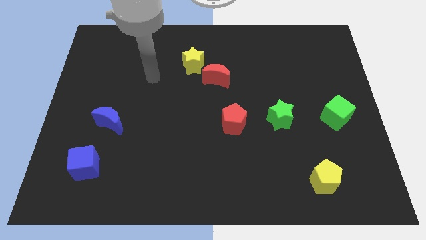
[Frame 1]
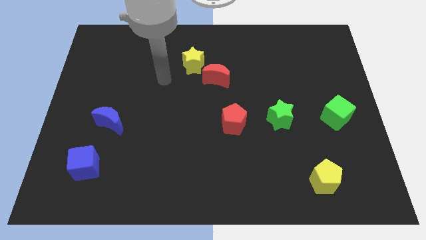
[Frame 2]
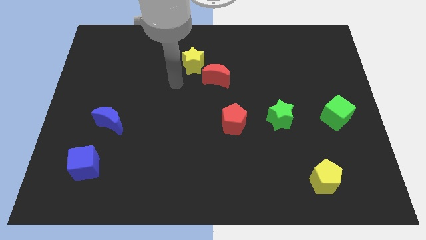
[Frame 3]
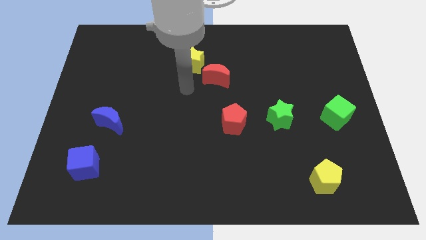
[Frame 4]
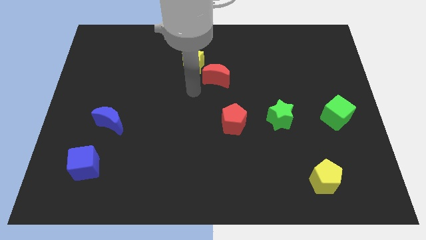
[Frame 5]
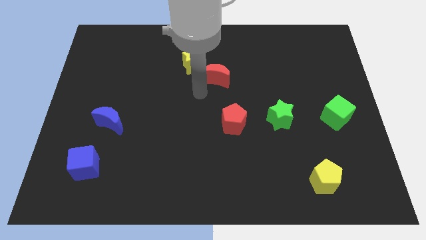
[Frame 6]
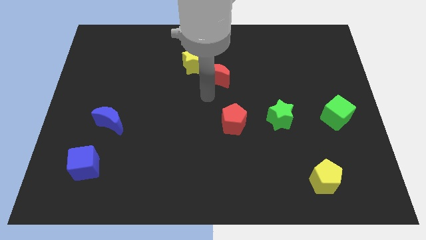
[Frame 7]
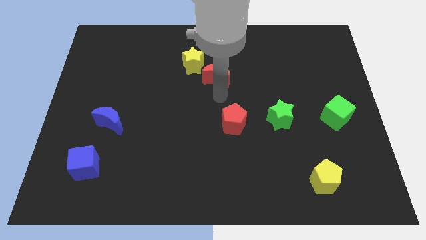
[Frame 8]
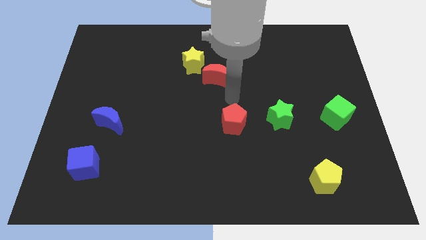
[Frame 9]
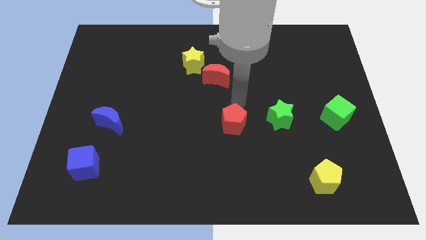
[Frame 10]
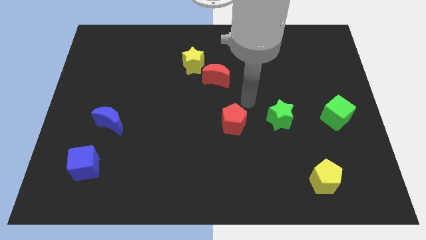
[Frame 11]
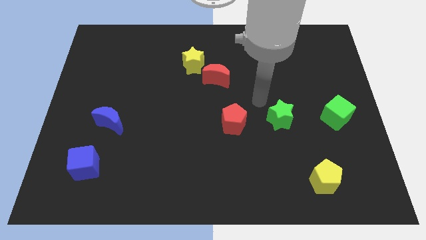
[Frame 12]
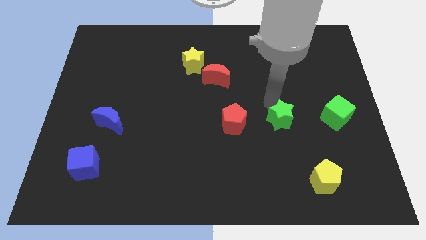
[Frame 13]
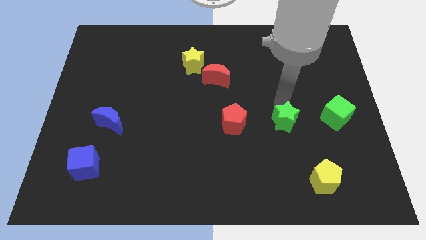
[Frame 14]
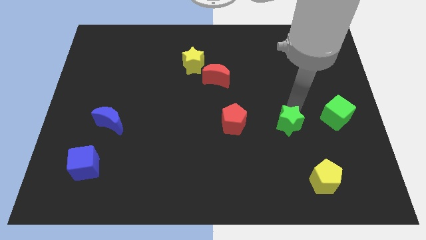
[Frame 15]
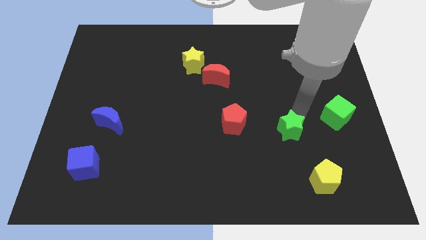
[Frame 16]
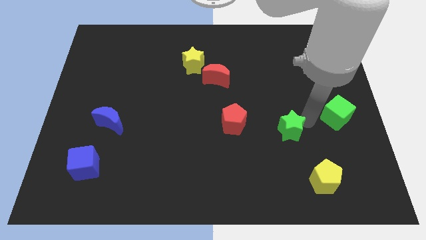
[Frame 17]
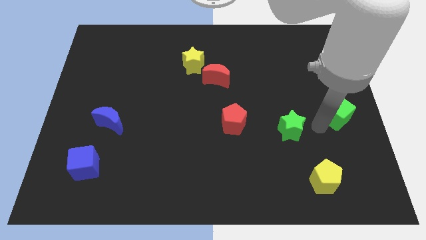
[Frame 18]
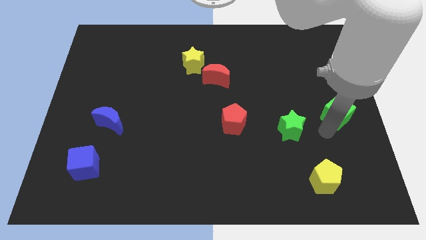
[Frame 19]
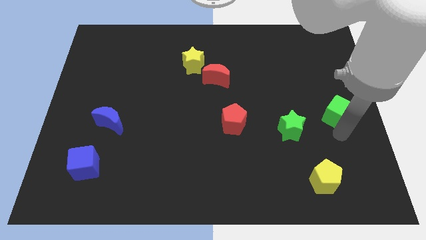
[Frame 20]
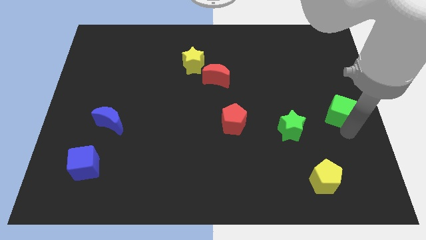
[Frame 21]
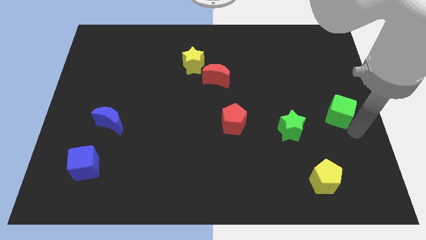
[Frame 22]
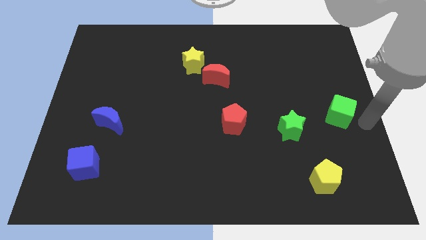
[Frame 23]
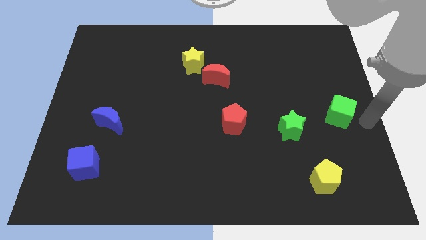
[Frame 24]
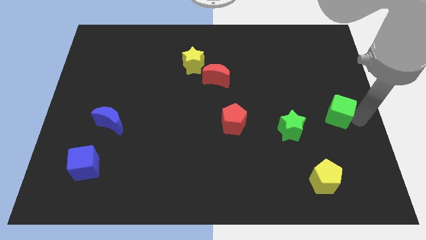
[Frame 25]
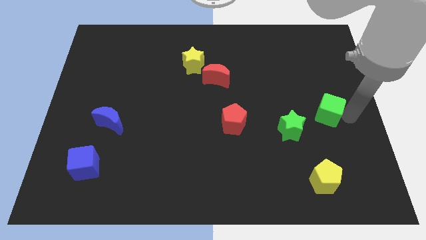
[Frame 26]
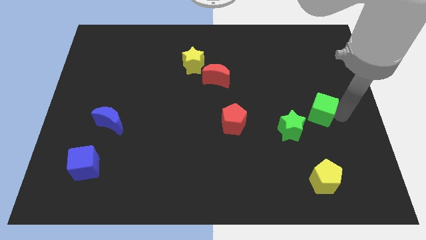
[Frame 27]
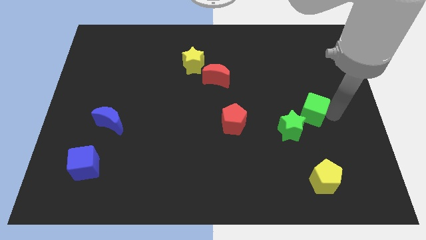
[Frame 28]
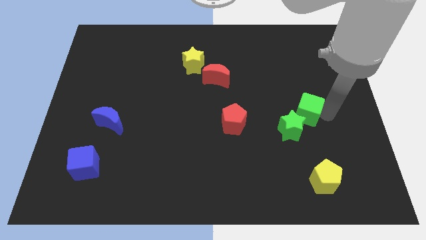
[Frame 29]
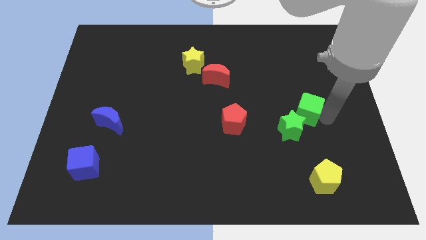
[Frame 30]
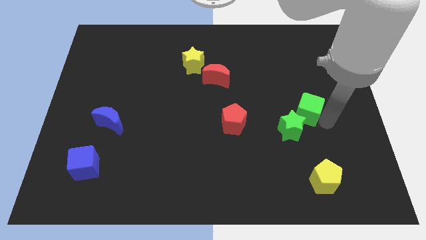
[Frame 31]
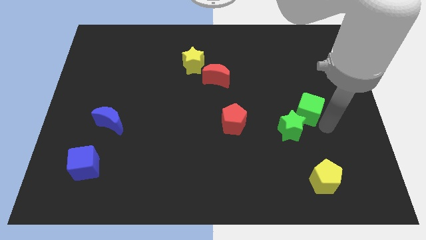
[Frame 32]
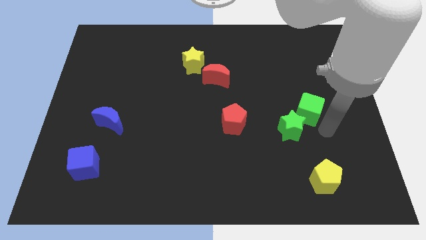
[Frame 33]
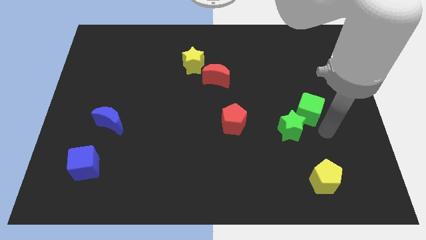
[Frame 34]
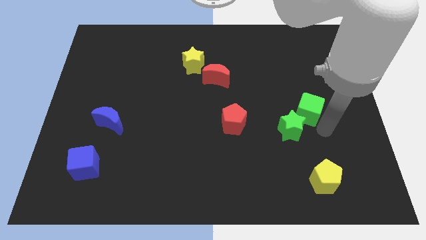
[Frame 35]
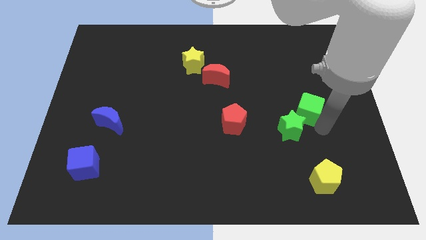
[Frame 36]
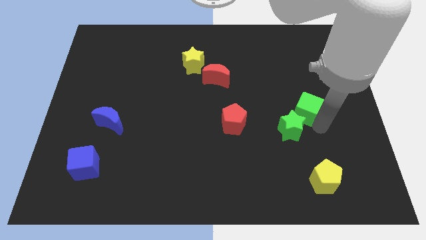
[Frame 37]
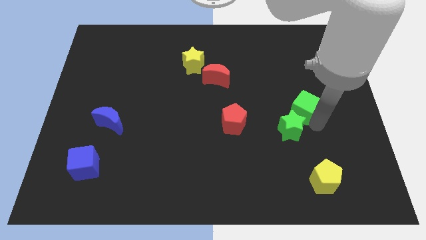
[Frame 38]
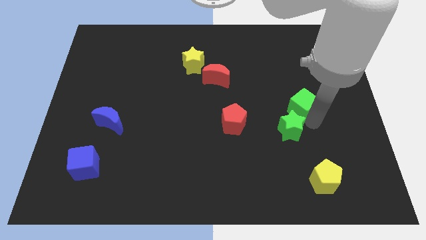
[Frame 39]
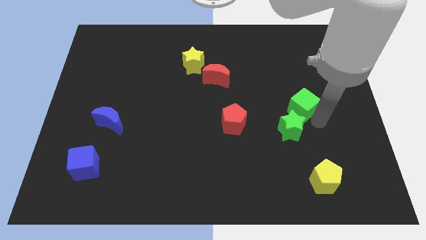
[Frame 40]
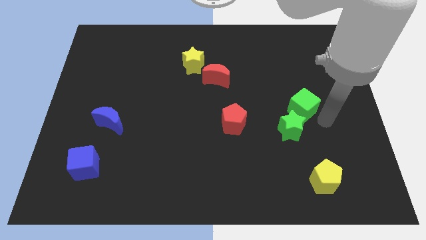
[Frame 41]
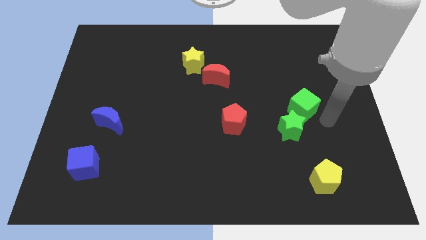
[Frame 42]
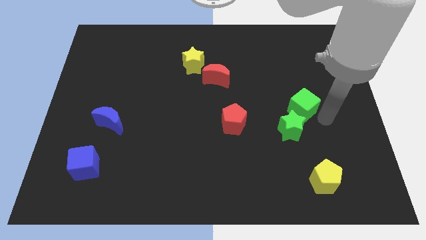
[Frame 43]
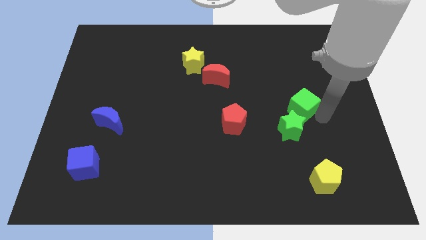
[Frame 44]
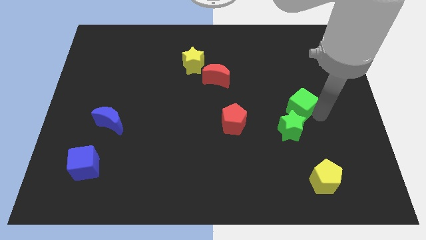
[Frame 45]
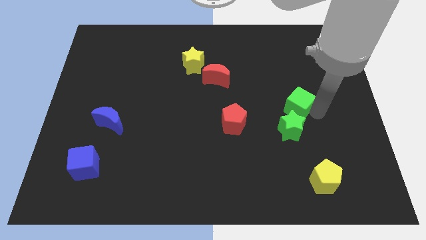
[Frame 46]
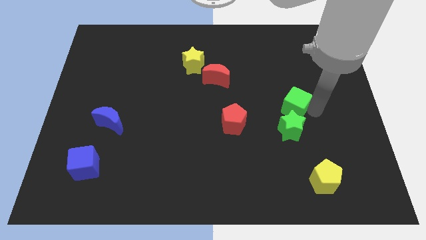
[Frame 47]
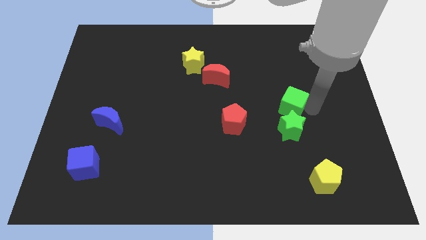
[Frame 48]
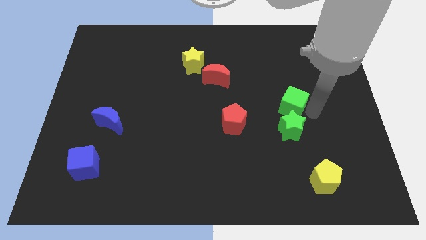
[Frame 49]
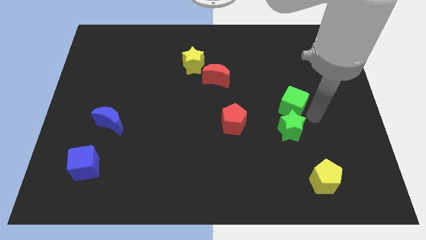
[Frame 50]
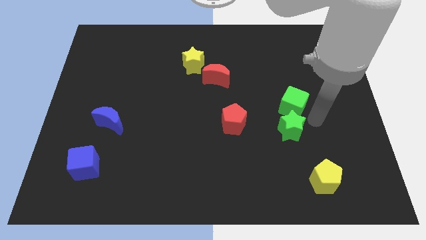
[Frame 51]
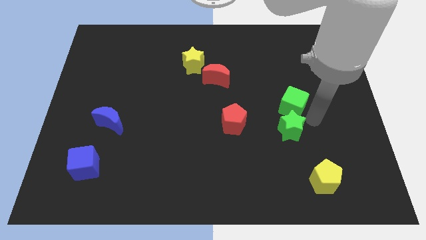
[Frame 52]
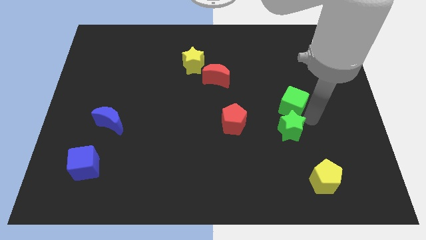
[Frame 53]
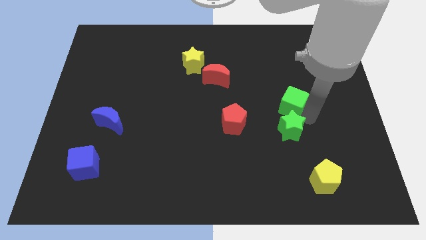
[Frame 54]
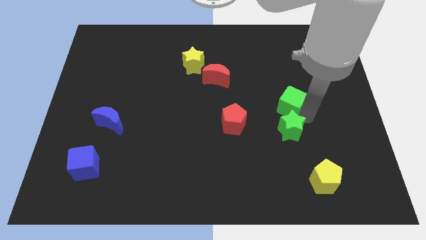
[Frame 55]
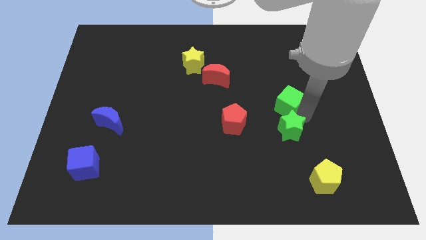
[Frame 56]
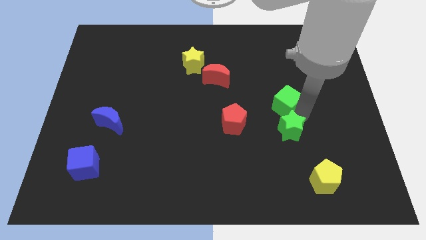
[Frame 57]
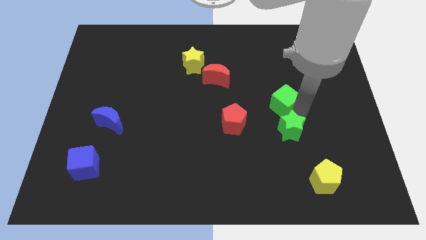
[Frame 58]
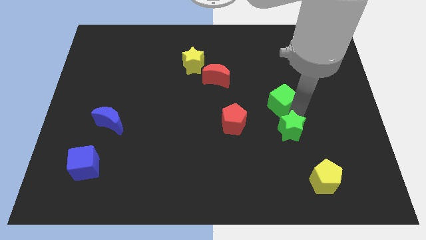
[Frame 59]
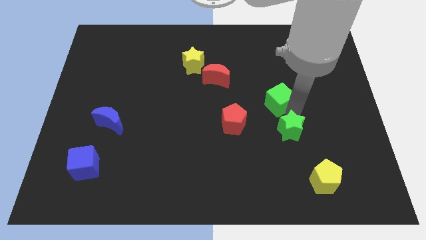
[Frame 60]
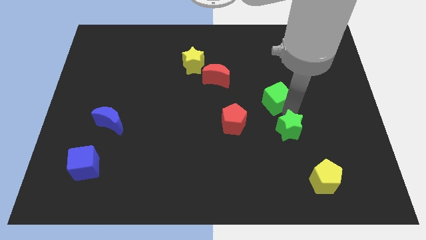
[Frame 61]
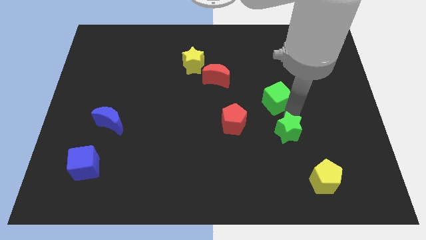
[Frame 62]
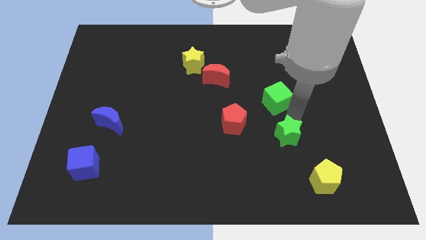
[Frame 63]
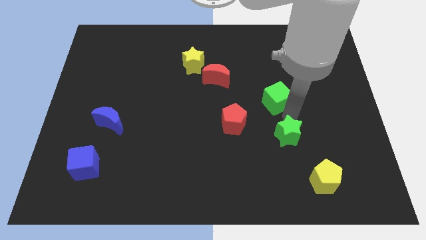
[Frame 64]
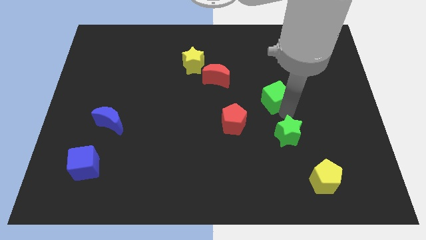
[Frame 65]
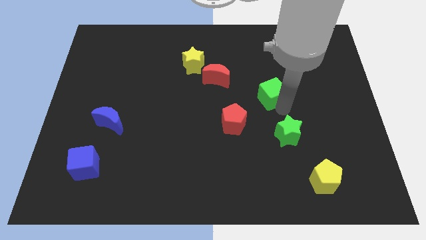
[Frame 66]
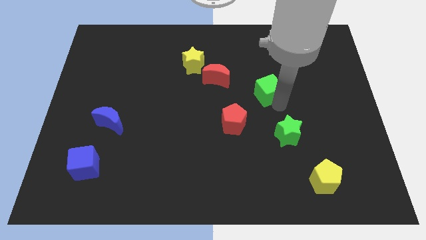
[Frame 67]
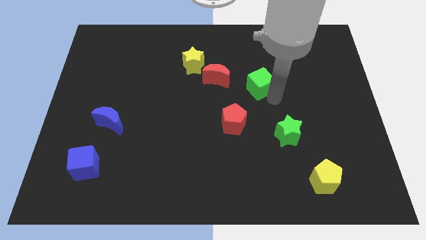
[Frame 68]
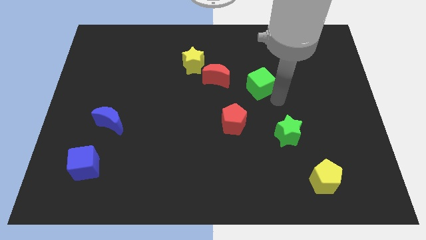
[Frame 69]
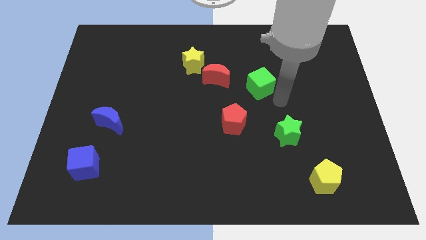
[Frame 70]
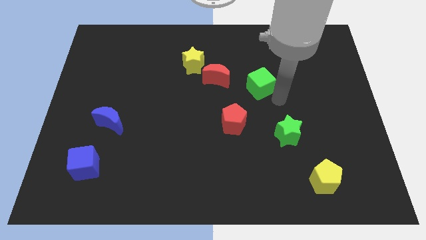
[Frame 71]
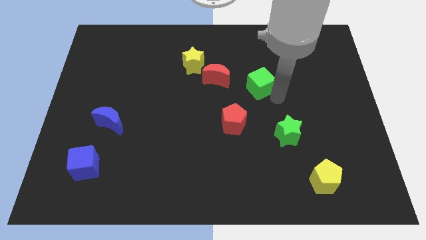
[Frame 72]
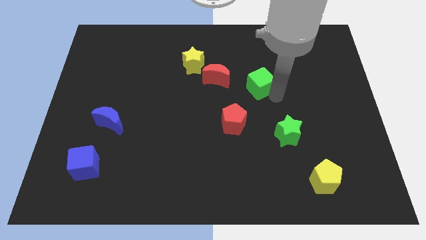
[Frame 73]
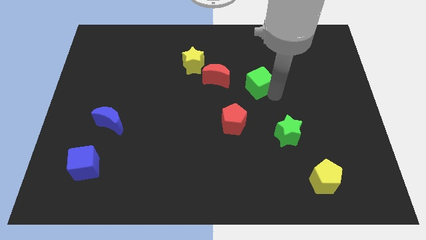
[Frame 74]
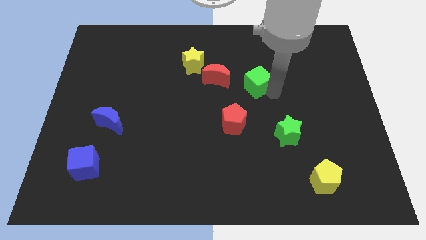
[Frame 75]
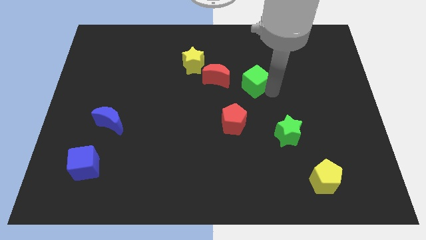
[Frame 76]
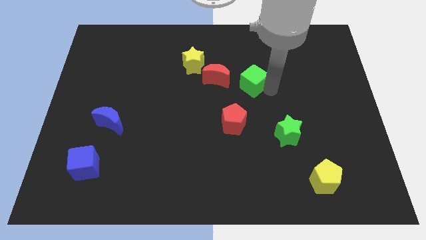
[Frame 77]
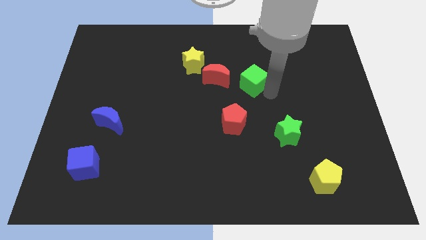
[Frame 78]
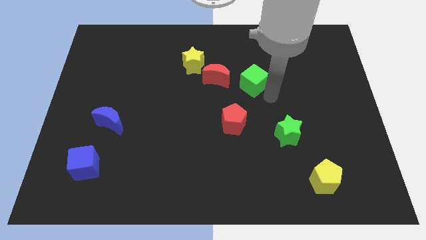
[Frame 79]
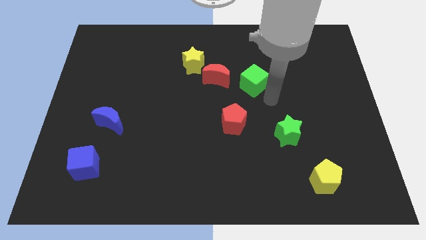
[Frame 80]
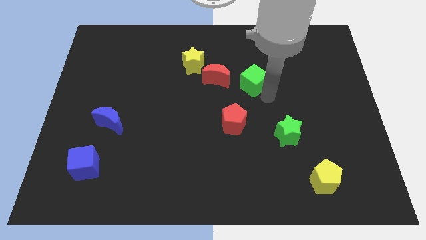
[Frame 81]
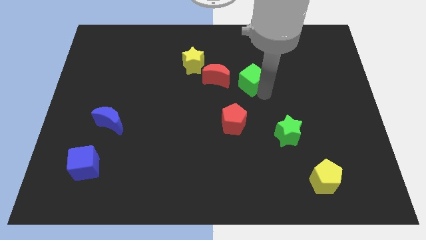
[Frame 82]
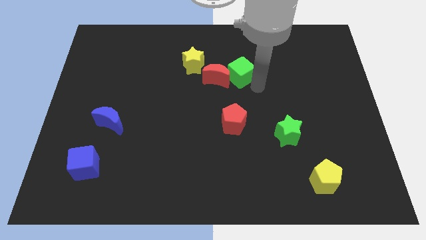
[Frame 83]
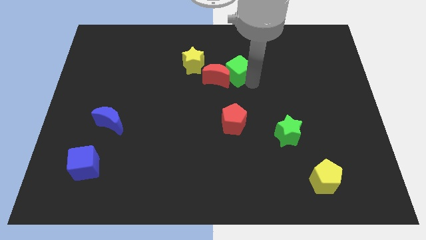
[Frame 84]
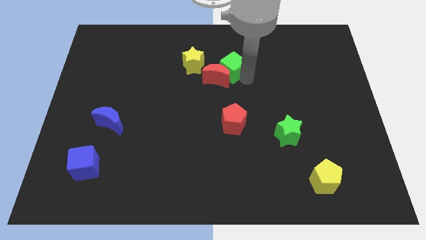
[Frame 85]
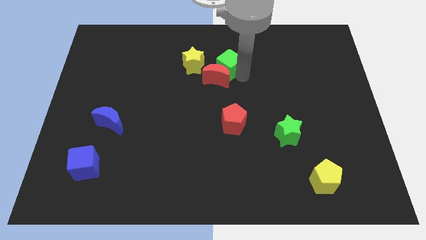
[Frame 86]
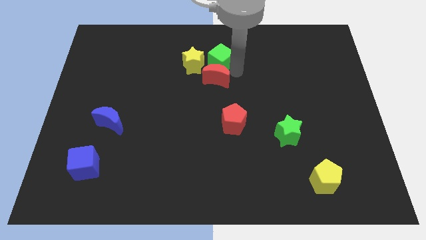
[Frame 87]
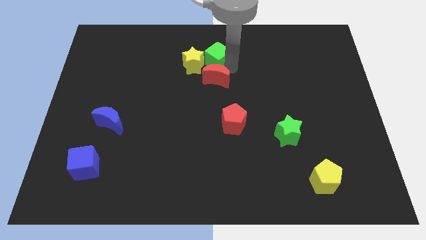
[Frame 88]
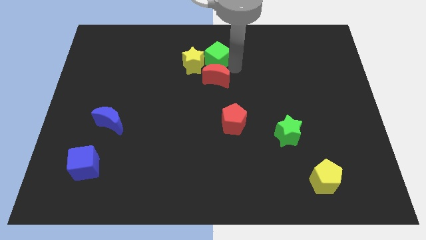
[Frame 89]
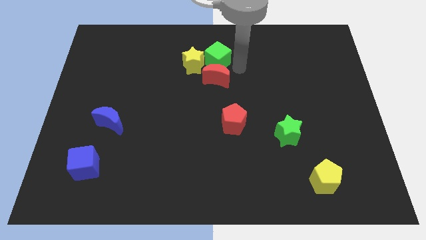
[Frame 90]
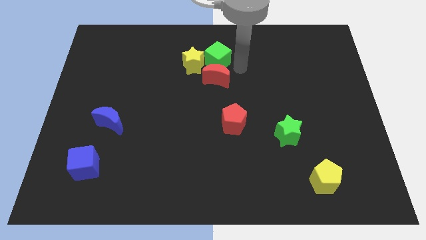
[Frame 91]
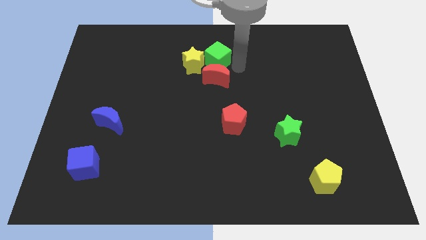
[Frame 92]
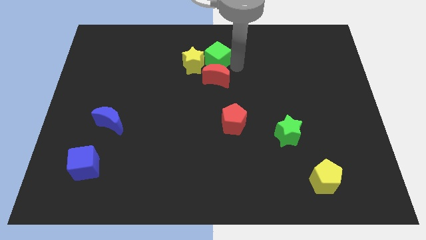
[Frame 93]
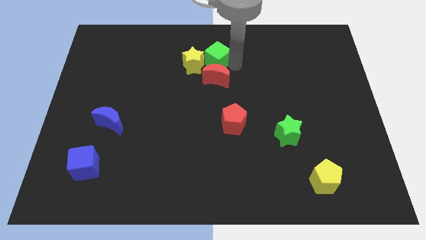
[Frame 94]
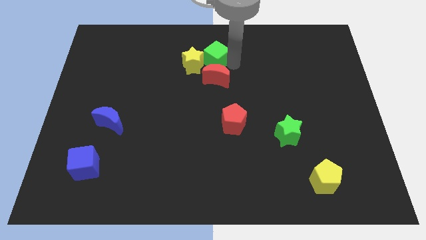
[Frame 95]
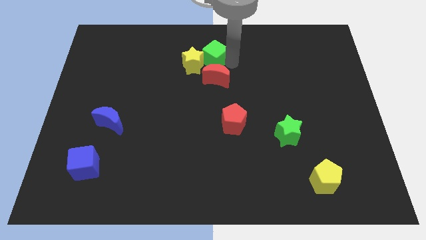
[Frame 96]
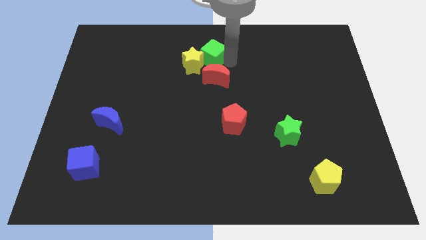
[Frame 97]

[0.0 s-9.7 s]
push the green cube to the top side
